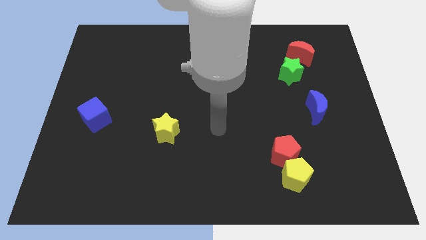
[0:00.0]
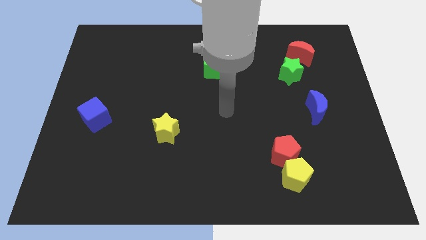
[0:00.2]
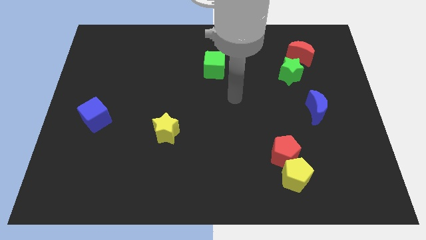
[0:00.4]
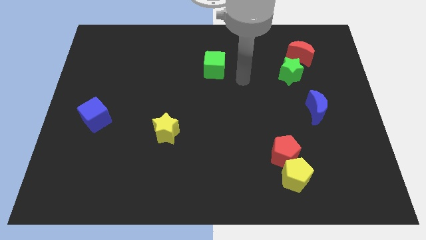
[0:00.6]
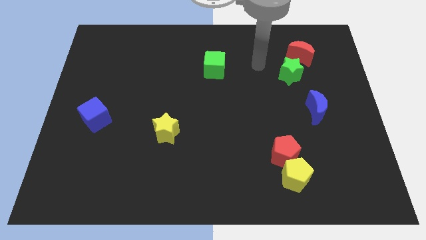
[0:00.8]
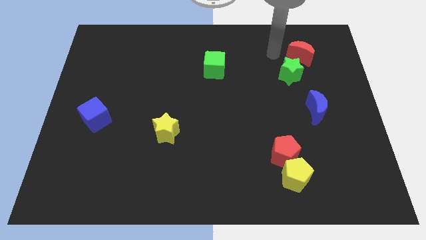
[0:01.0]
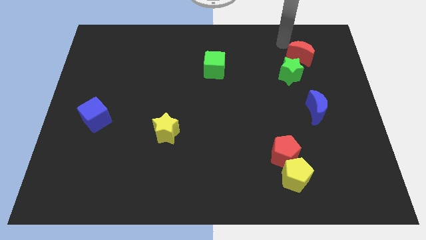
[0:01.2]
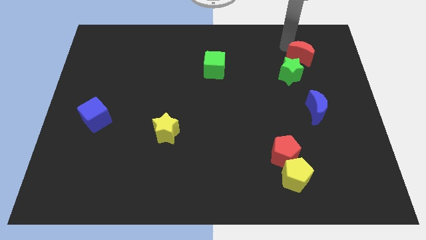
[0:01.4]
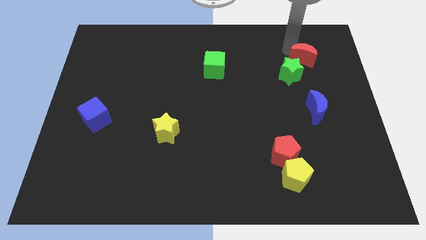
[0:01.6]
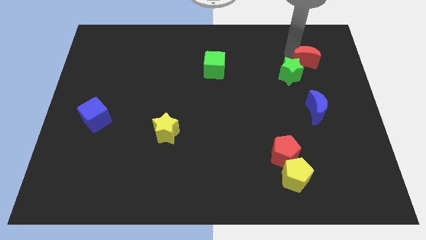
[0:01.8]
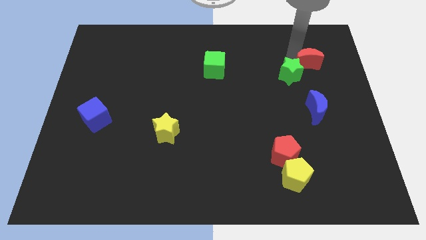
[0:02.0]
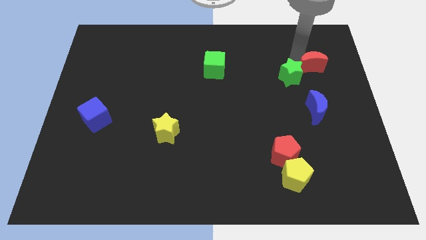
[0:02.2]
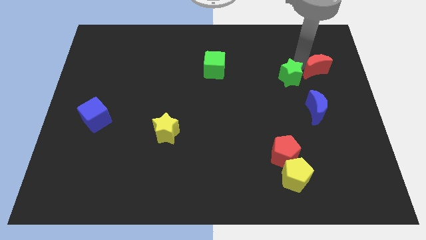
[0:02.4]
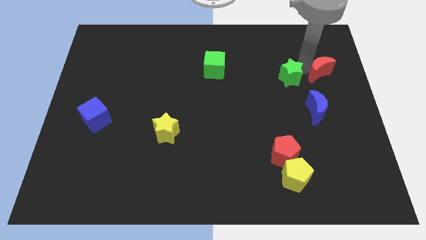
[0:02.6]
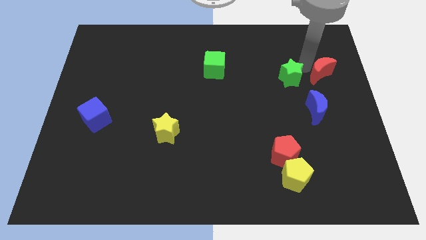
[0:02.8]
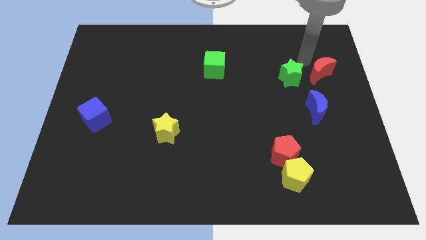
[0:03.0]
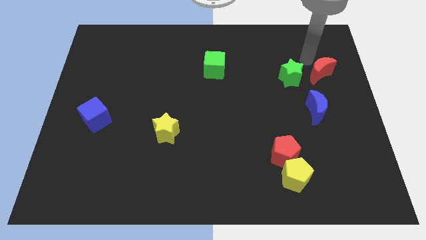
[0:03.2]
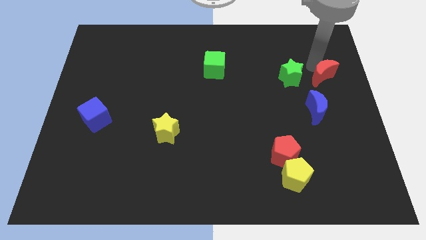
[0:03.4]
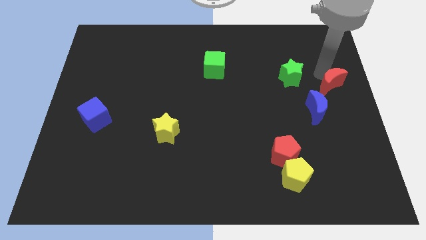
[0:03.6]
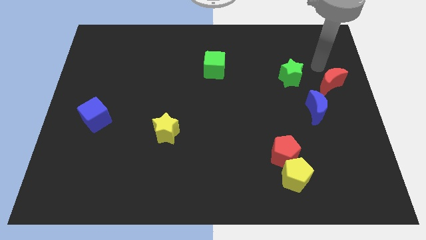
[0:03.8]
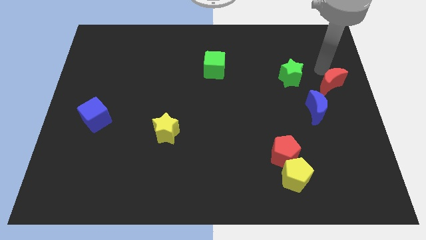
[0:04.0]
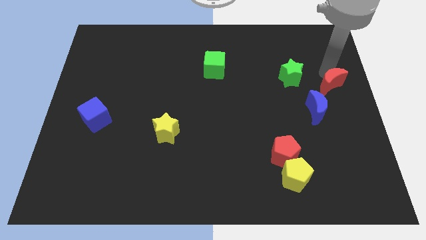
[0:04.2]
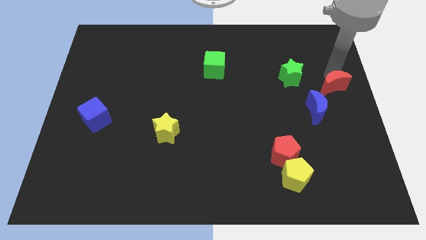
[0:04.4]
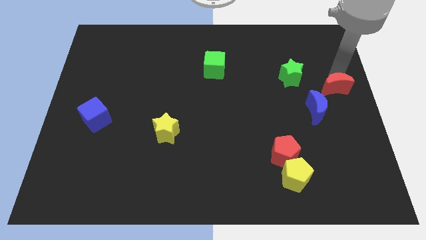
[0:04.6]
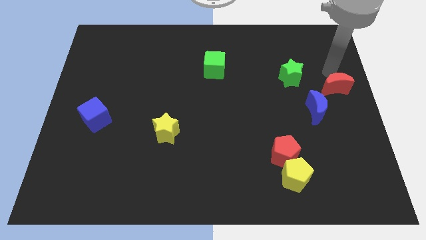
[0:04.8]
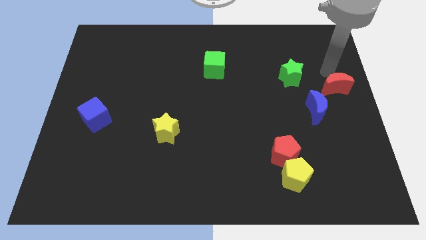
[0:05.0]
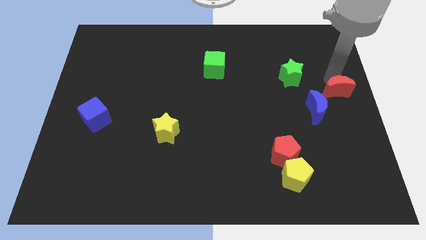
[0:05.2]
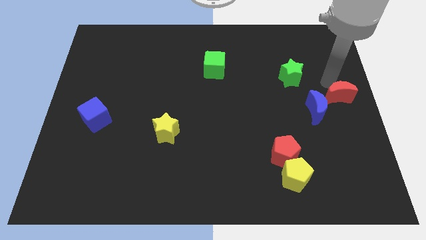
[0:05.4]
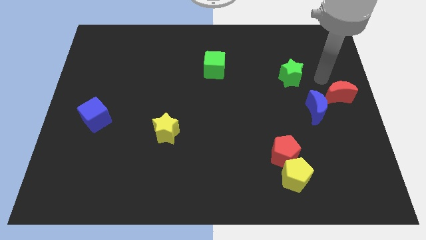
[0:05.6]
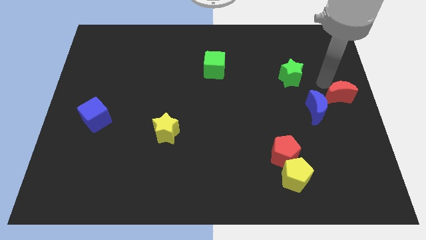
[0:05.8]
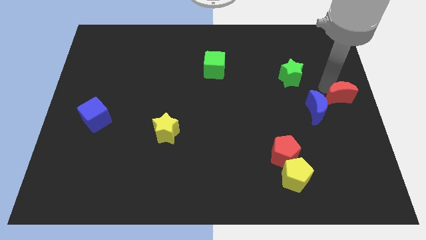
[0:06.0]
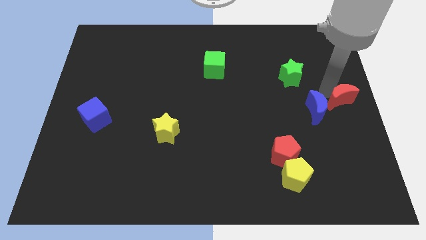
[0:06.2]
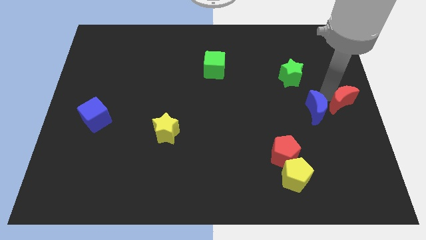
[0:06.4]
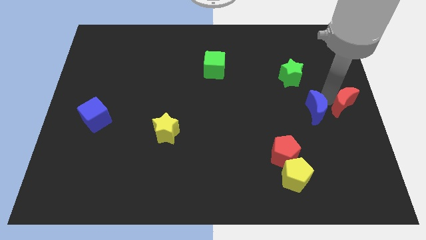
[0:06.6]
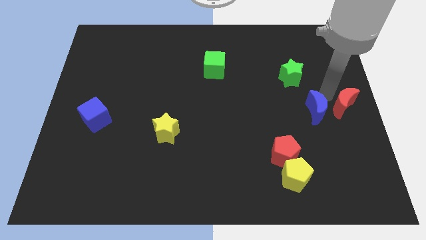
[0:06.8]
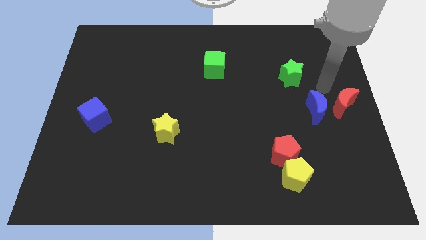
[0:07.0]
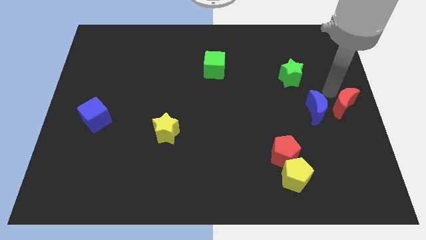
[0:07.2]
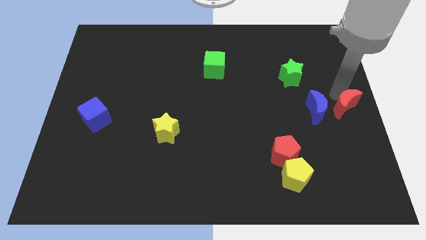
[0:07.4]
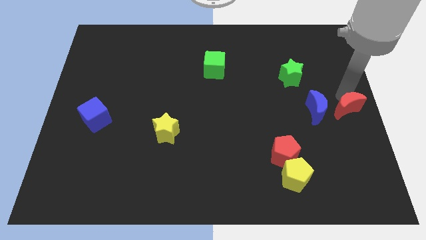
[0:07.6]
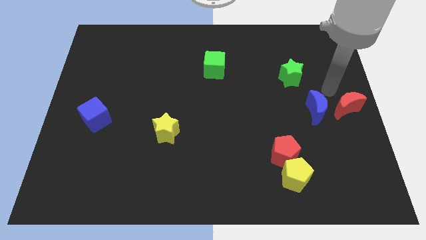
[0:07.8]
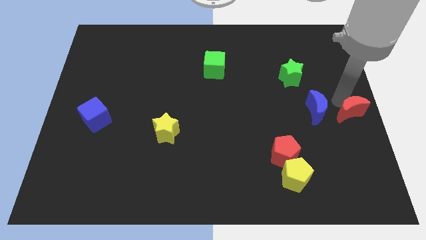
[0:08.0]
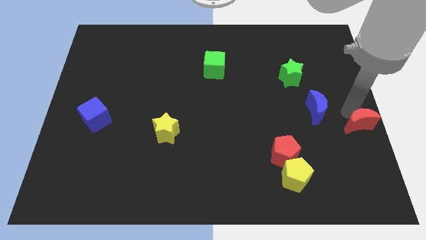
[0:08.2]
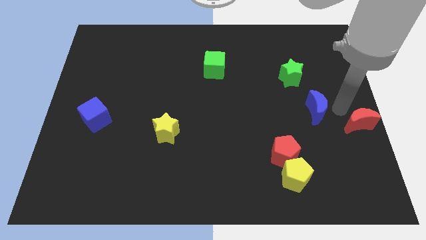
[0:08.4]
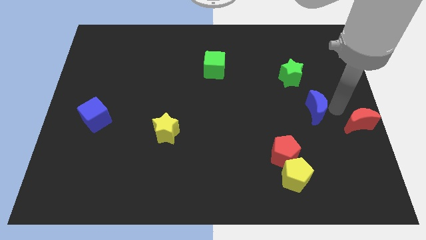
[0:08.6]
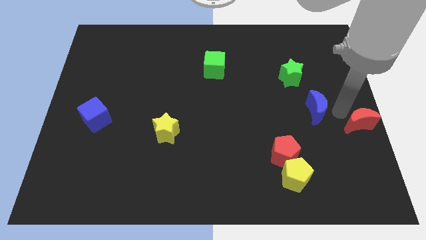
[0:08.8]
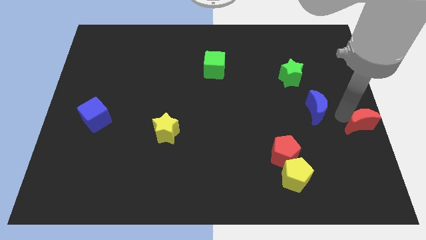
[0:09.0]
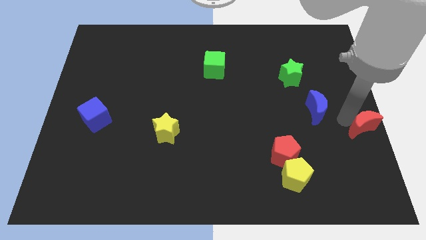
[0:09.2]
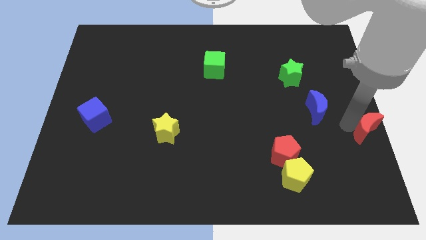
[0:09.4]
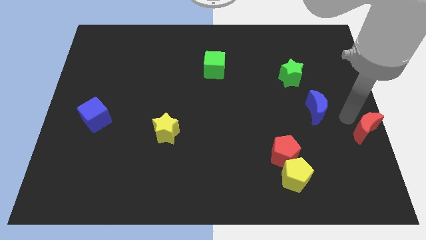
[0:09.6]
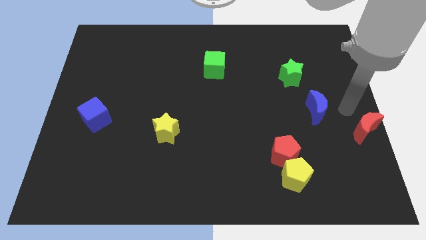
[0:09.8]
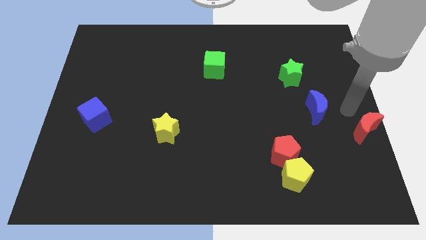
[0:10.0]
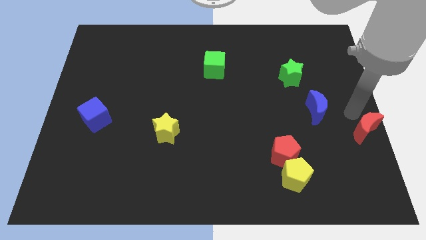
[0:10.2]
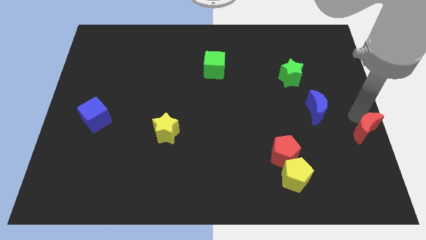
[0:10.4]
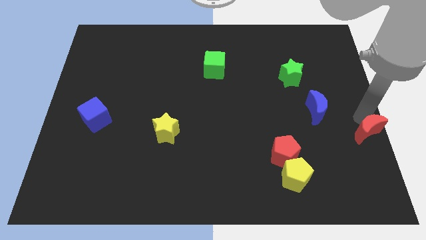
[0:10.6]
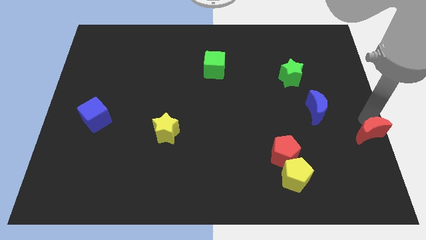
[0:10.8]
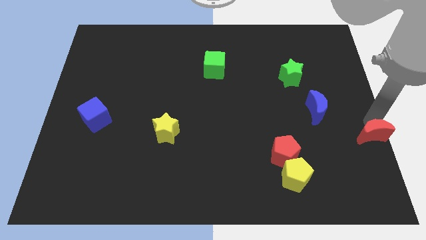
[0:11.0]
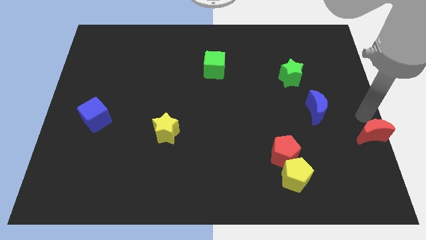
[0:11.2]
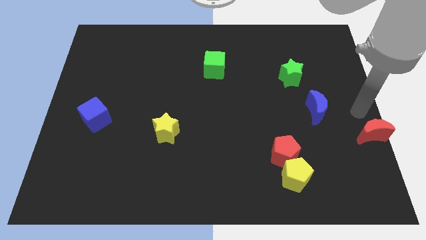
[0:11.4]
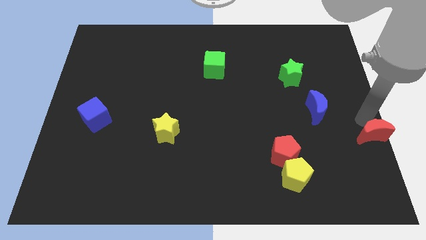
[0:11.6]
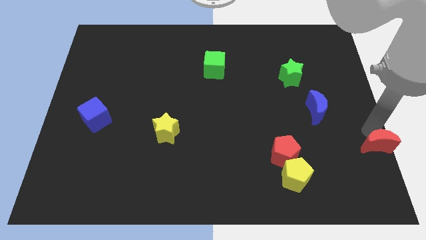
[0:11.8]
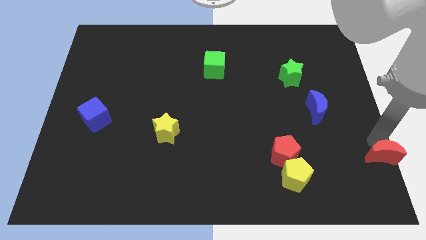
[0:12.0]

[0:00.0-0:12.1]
slide the red moon to the bottom right corner
